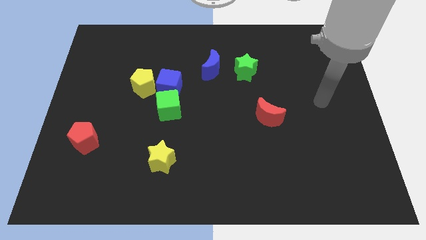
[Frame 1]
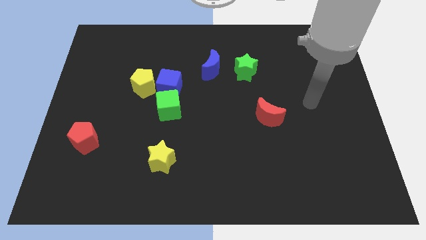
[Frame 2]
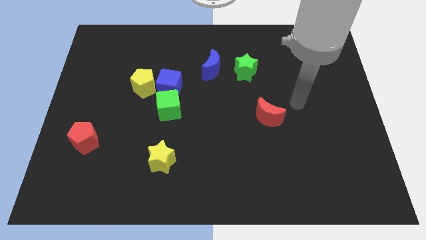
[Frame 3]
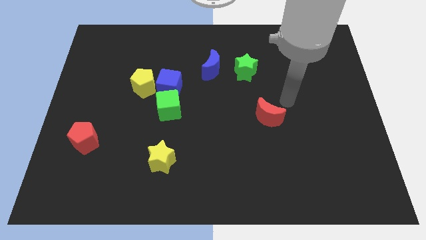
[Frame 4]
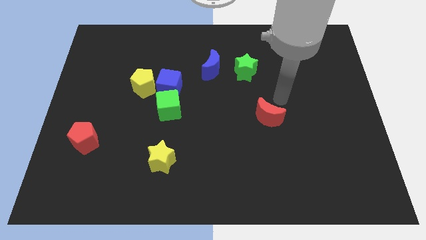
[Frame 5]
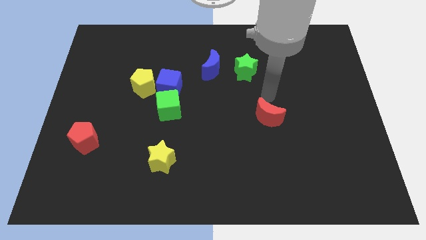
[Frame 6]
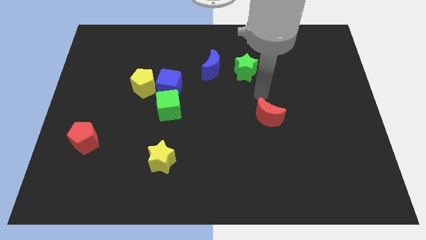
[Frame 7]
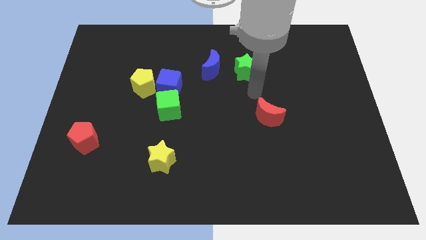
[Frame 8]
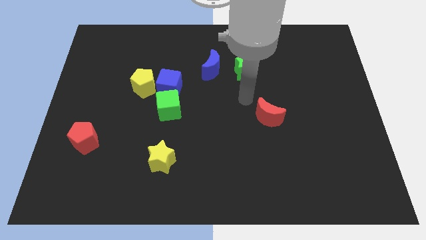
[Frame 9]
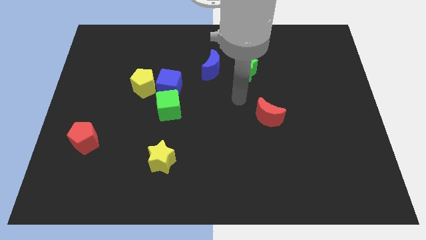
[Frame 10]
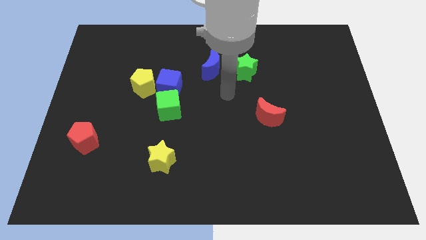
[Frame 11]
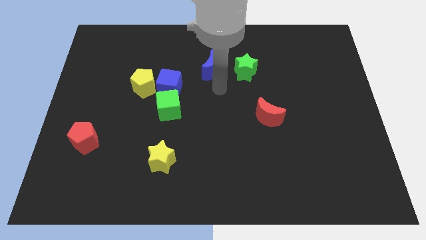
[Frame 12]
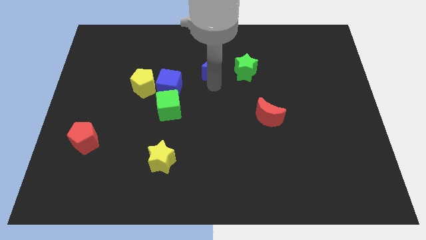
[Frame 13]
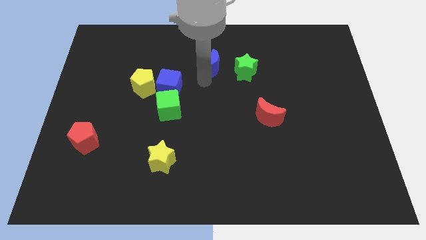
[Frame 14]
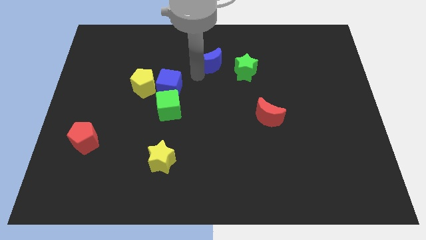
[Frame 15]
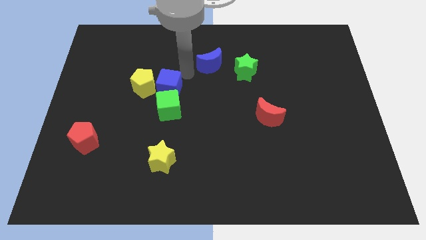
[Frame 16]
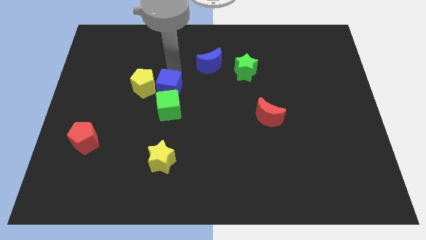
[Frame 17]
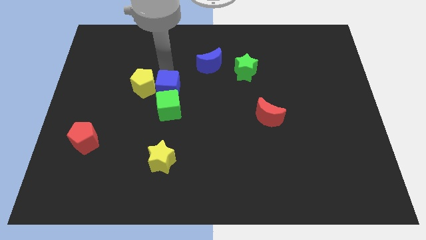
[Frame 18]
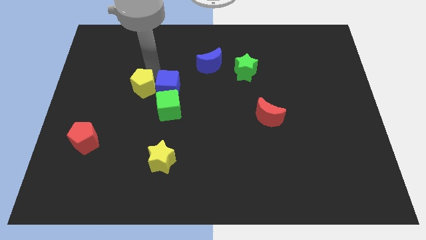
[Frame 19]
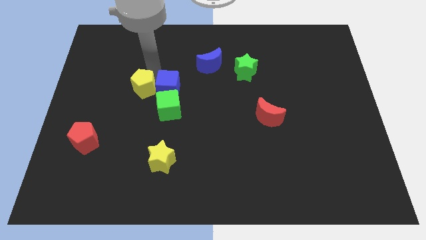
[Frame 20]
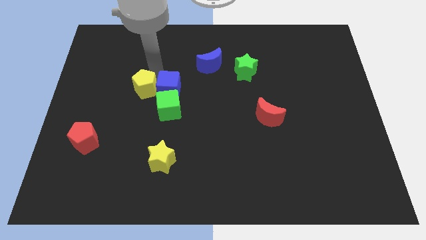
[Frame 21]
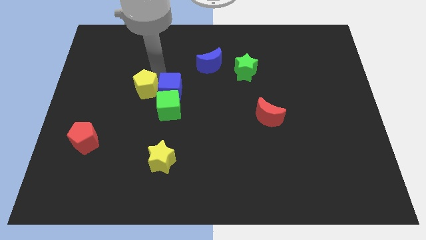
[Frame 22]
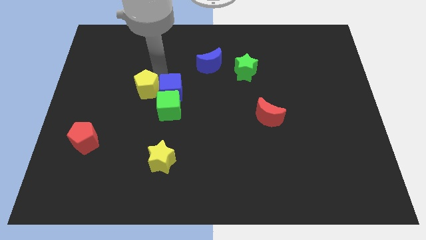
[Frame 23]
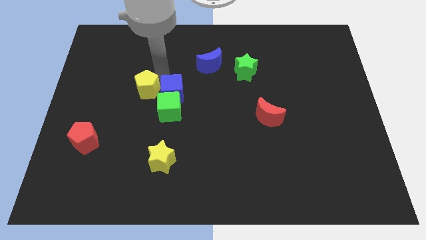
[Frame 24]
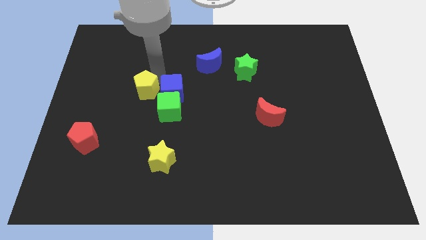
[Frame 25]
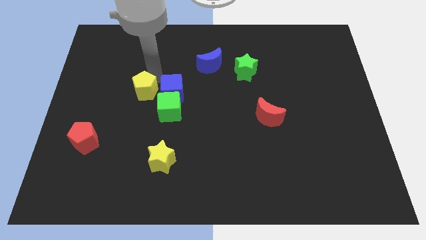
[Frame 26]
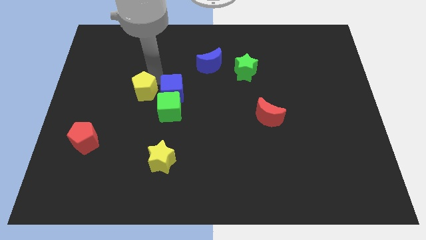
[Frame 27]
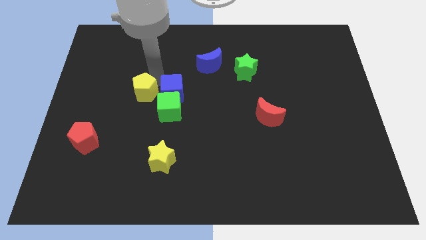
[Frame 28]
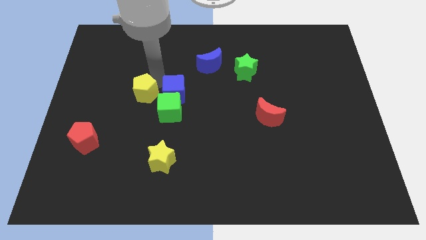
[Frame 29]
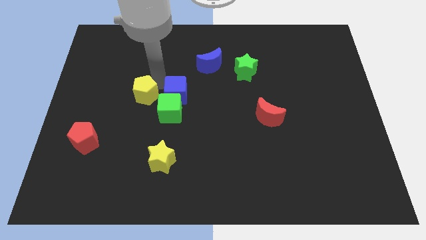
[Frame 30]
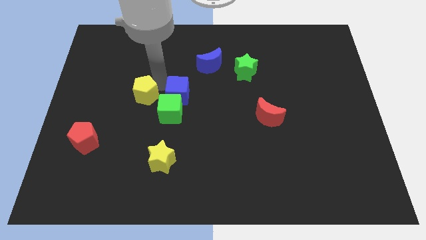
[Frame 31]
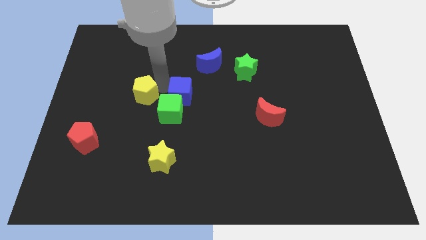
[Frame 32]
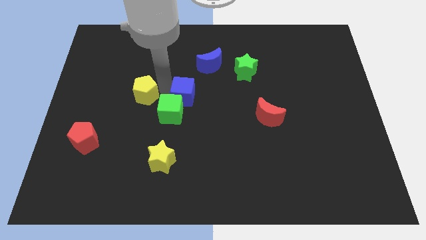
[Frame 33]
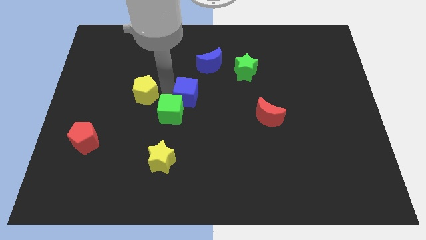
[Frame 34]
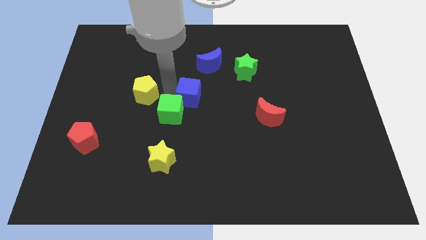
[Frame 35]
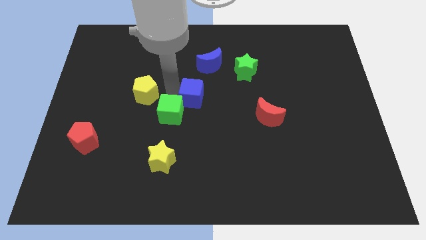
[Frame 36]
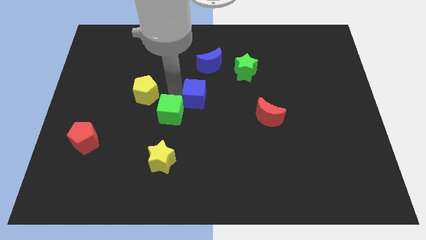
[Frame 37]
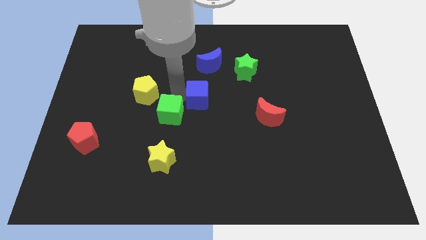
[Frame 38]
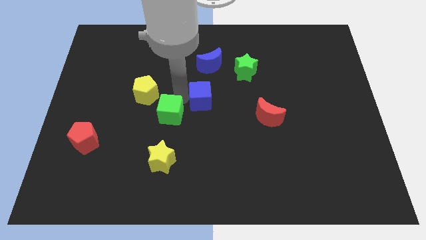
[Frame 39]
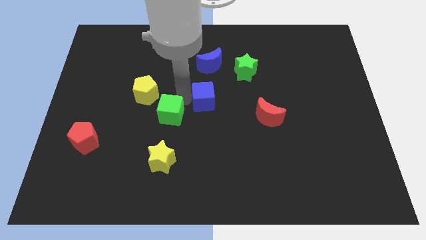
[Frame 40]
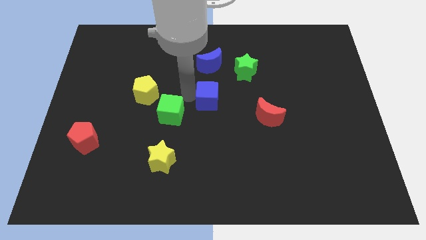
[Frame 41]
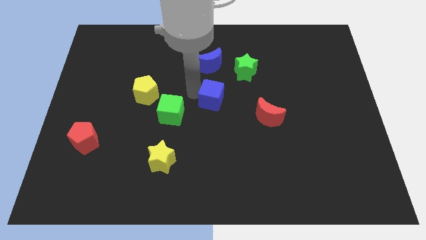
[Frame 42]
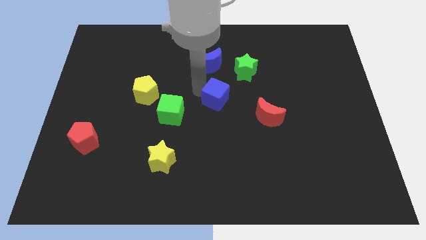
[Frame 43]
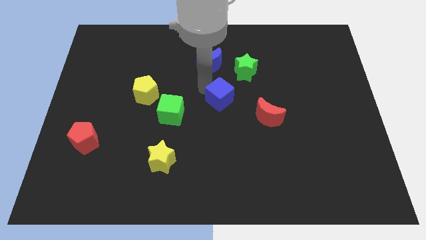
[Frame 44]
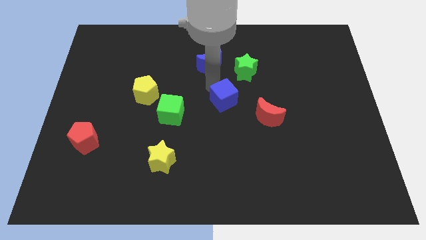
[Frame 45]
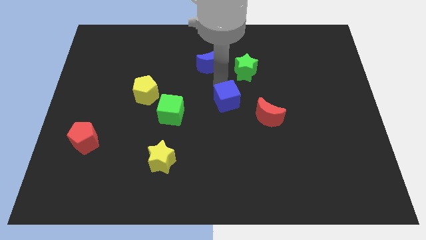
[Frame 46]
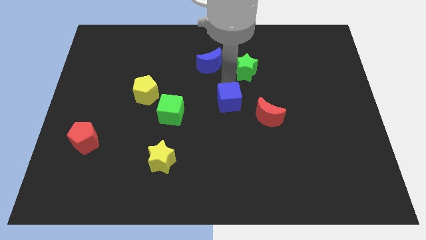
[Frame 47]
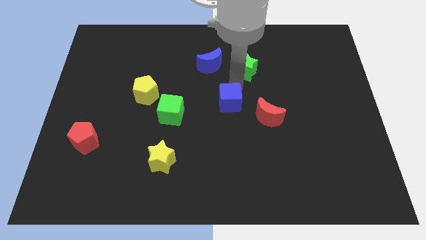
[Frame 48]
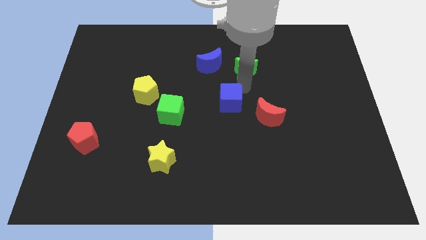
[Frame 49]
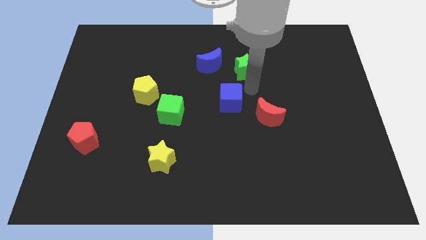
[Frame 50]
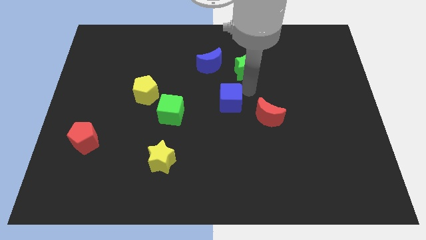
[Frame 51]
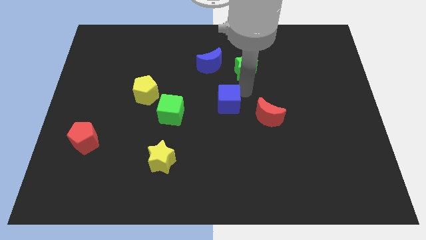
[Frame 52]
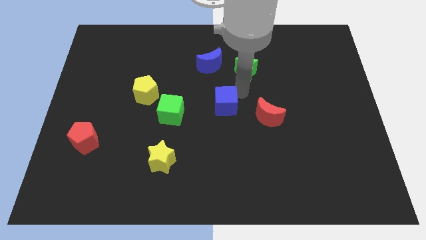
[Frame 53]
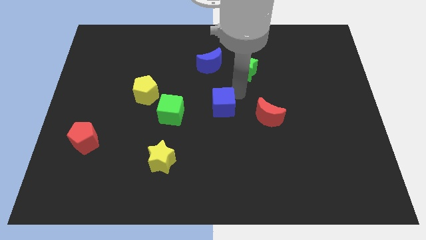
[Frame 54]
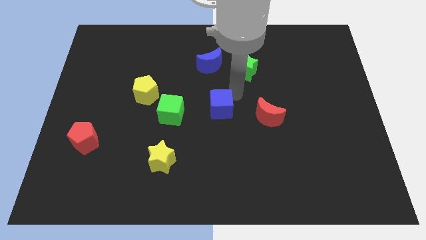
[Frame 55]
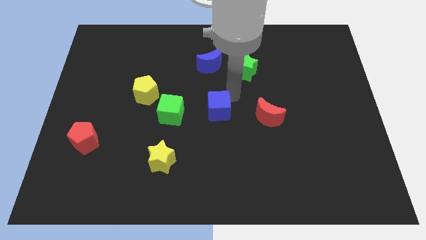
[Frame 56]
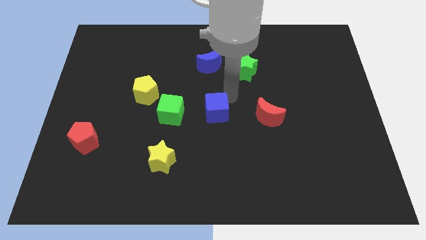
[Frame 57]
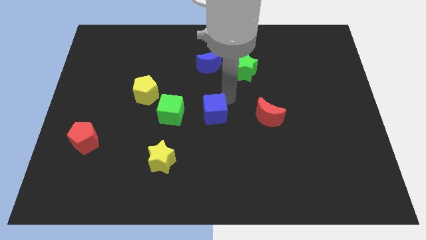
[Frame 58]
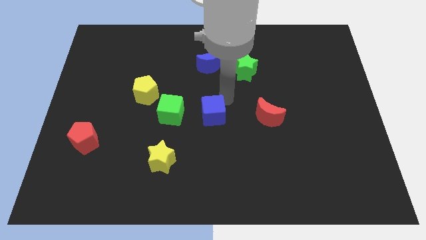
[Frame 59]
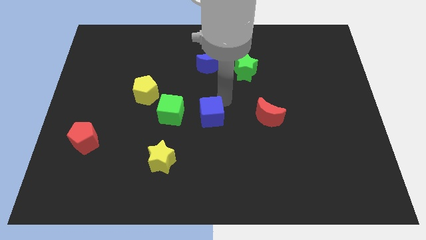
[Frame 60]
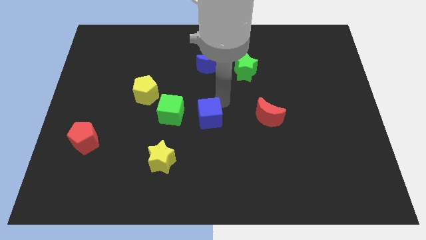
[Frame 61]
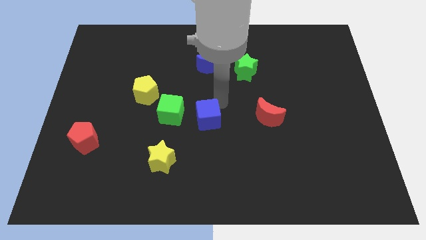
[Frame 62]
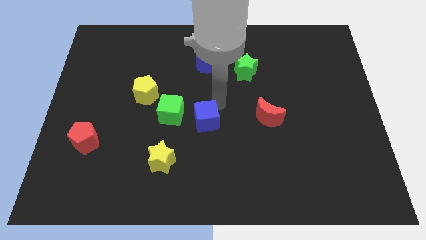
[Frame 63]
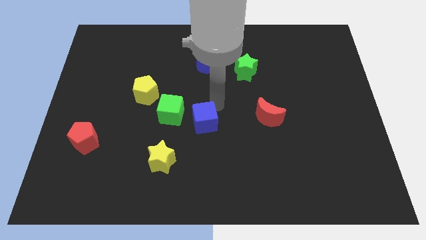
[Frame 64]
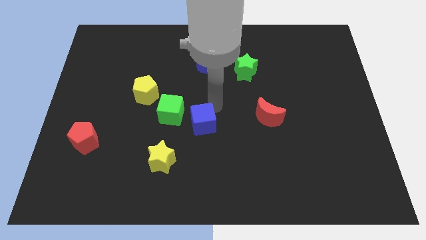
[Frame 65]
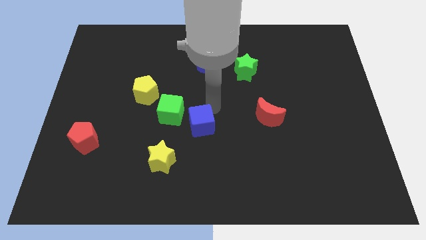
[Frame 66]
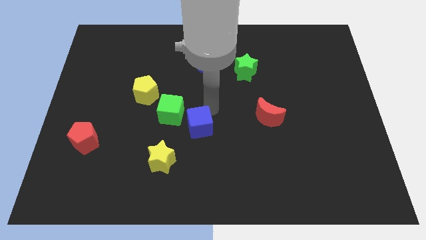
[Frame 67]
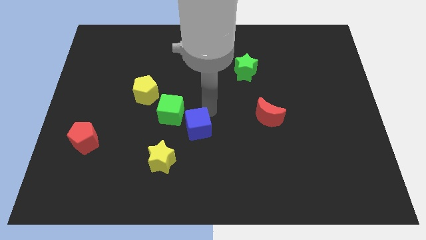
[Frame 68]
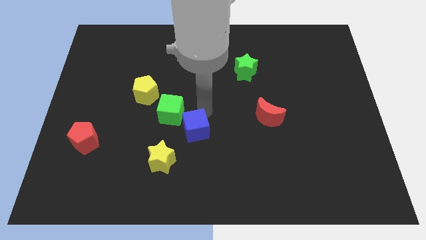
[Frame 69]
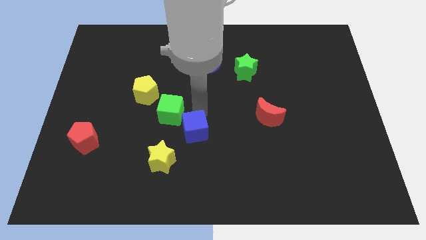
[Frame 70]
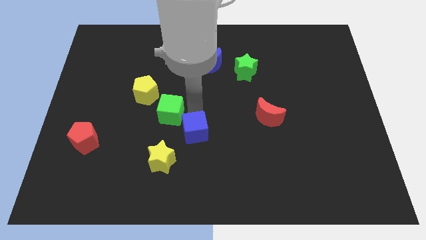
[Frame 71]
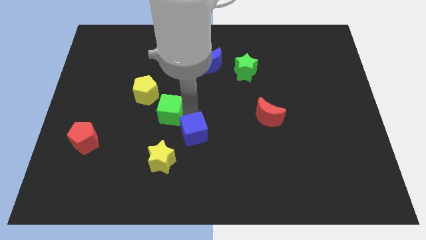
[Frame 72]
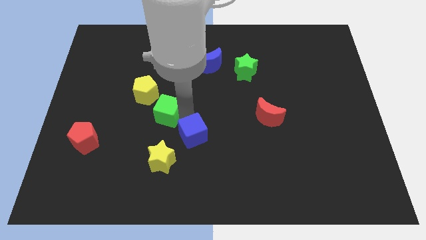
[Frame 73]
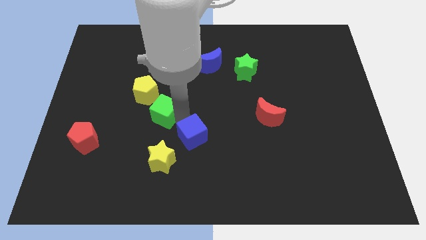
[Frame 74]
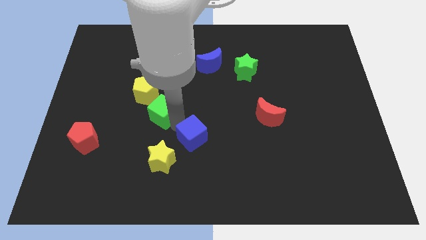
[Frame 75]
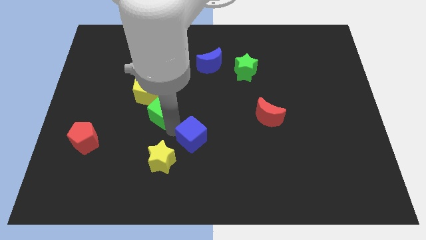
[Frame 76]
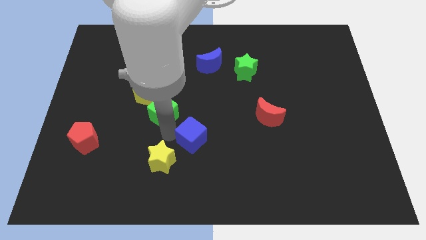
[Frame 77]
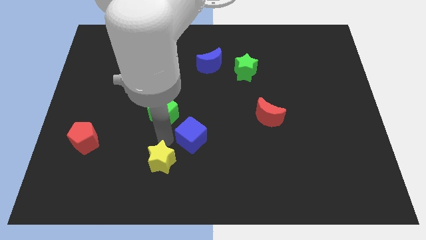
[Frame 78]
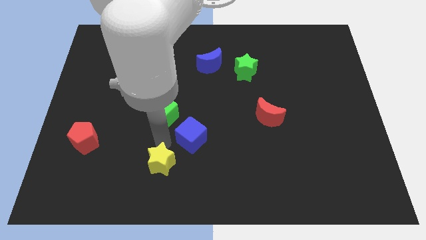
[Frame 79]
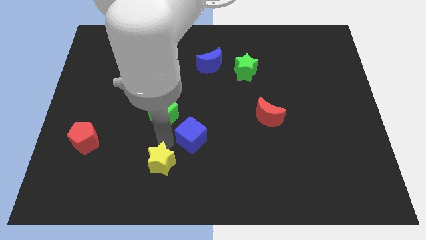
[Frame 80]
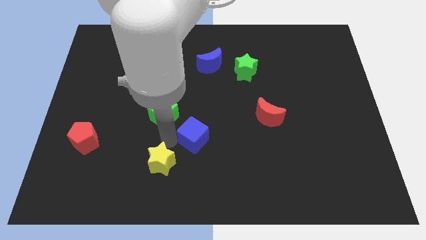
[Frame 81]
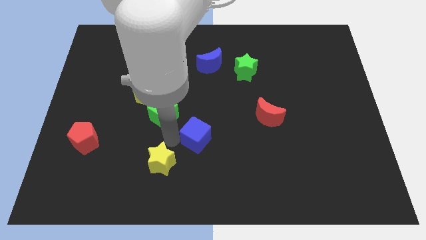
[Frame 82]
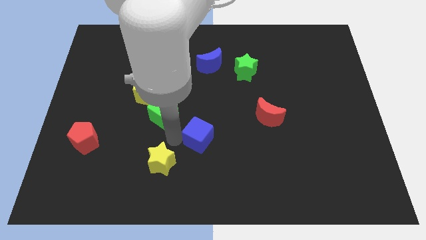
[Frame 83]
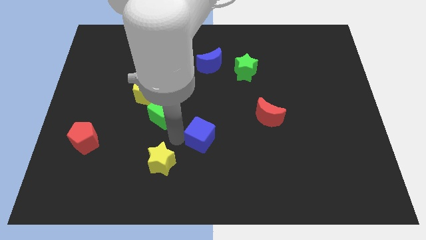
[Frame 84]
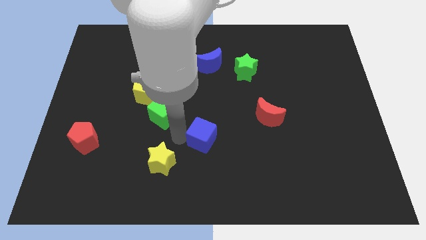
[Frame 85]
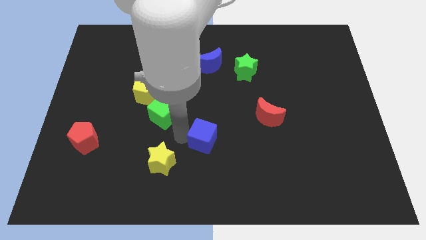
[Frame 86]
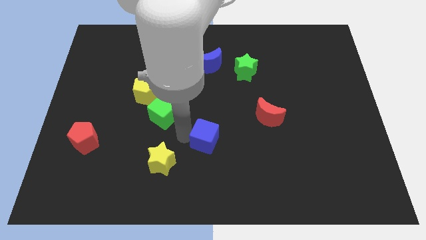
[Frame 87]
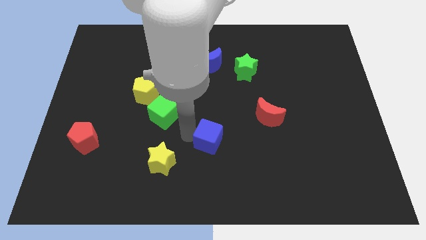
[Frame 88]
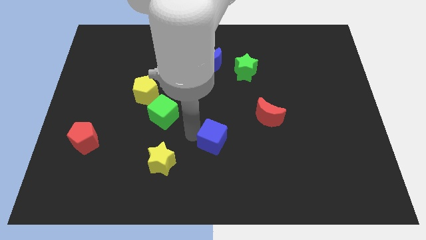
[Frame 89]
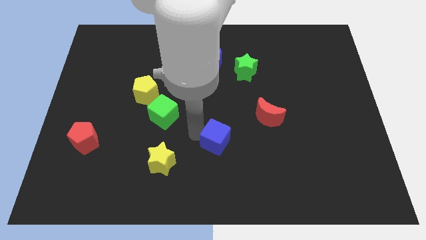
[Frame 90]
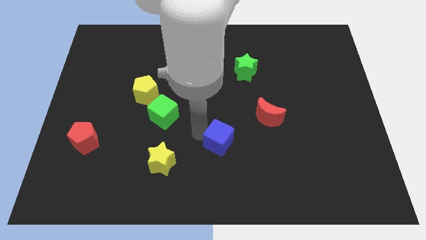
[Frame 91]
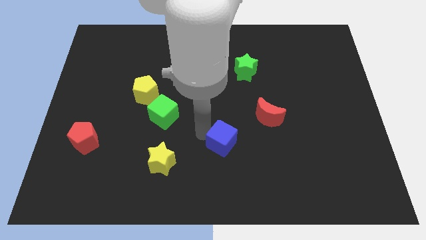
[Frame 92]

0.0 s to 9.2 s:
push the blue cube downwards and right diagonally
